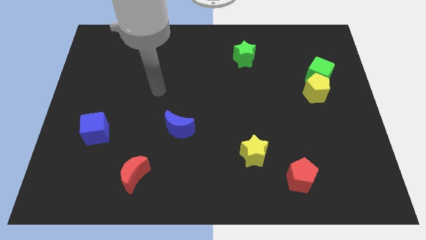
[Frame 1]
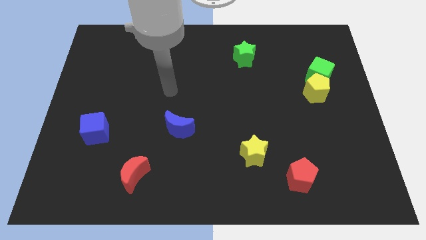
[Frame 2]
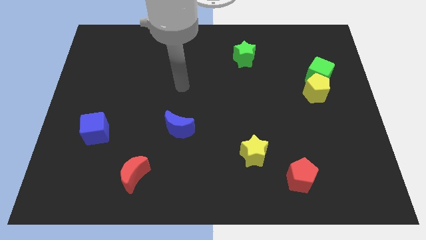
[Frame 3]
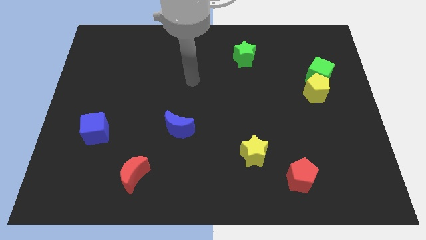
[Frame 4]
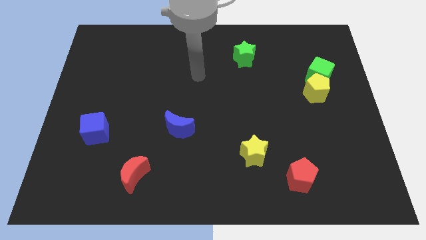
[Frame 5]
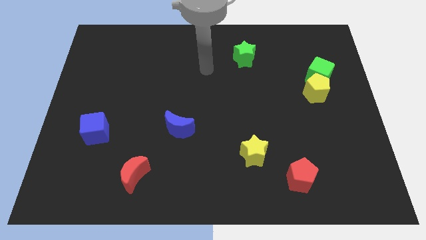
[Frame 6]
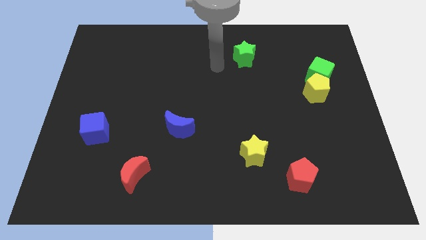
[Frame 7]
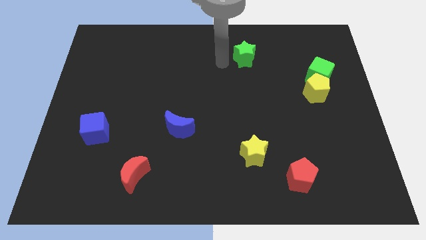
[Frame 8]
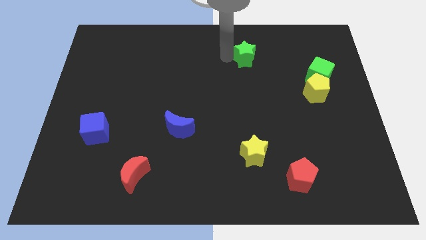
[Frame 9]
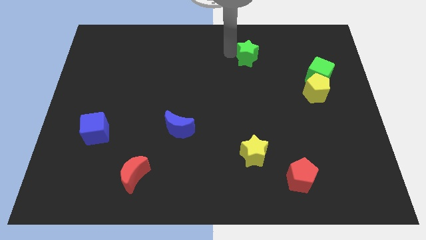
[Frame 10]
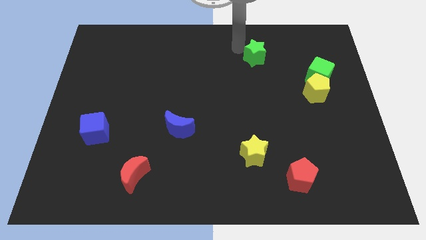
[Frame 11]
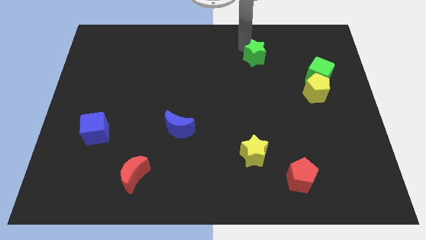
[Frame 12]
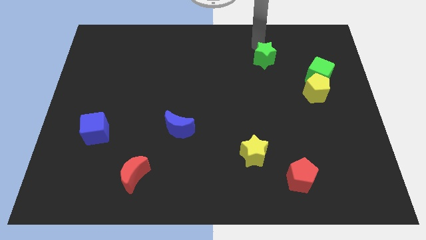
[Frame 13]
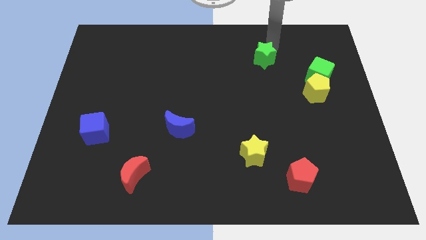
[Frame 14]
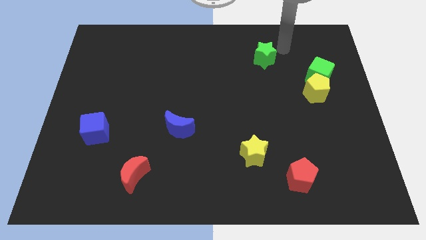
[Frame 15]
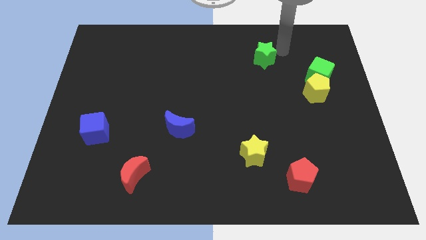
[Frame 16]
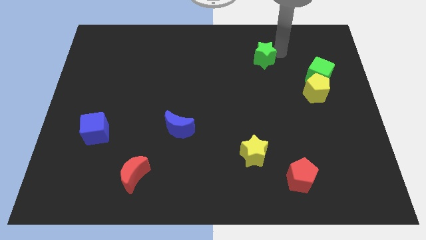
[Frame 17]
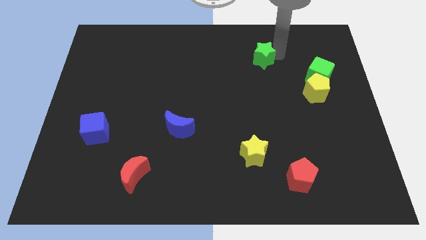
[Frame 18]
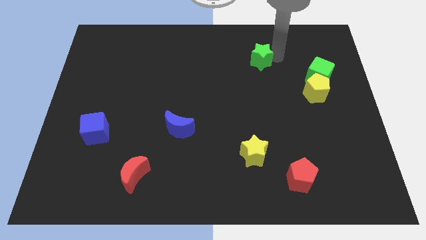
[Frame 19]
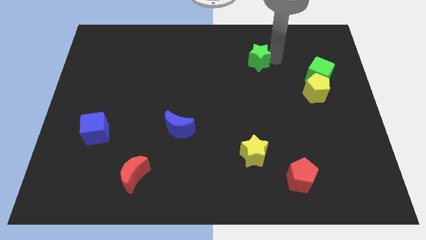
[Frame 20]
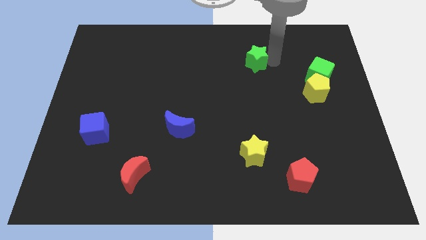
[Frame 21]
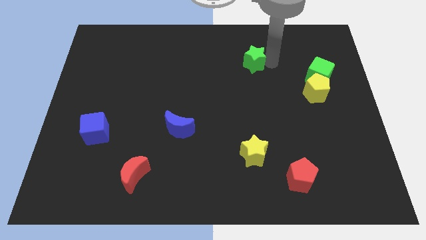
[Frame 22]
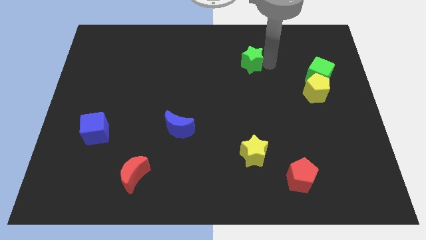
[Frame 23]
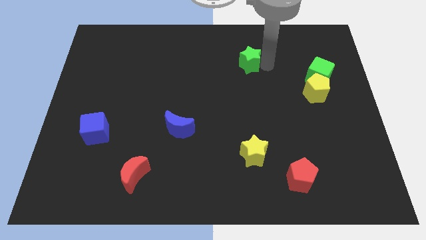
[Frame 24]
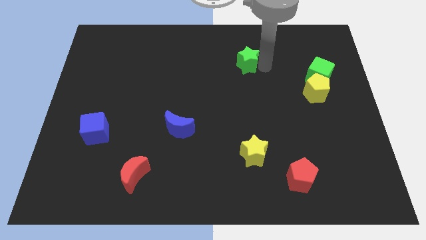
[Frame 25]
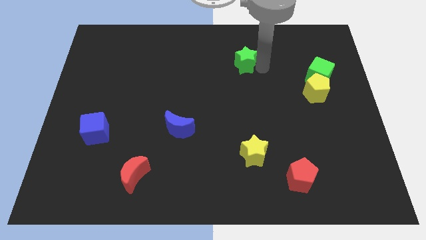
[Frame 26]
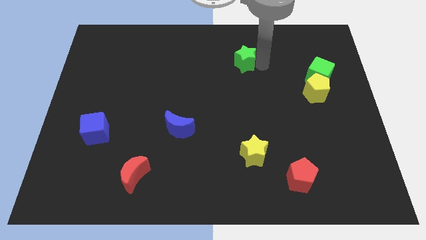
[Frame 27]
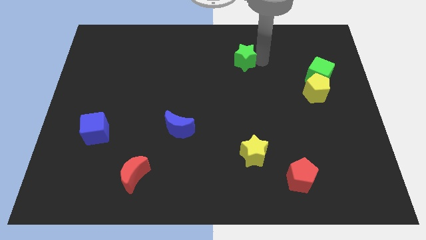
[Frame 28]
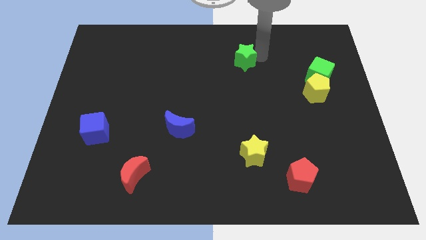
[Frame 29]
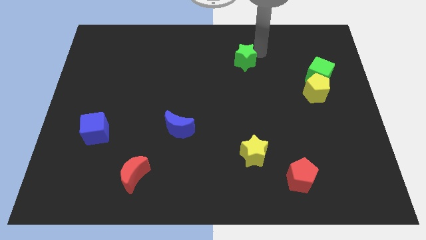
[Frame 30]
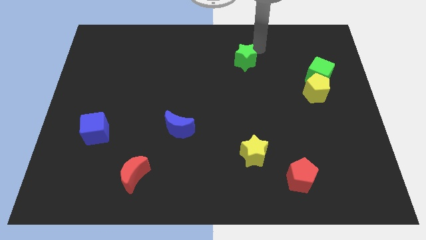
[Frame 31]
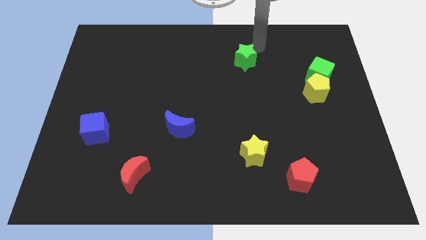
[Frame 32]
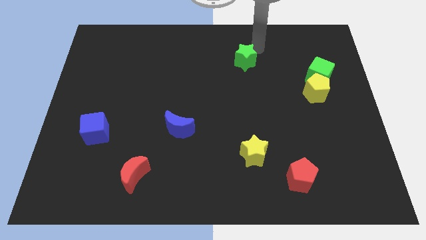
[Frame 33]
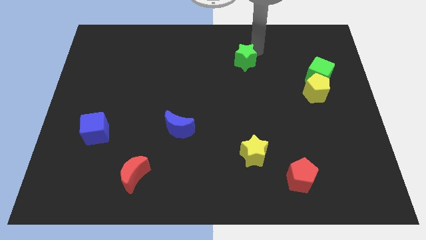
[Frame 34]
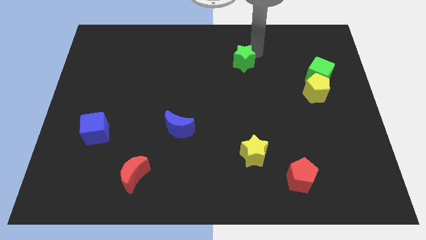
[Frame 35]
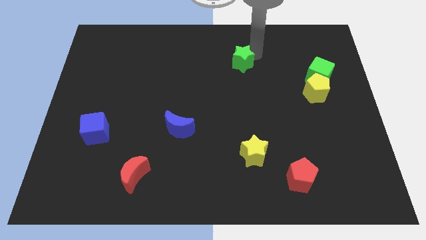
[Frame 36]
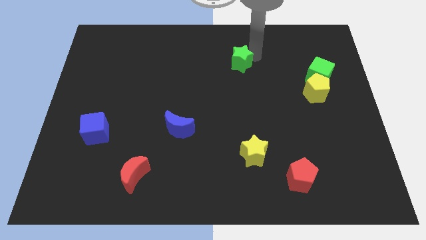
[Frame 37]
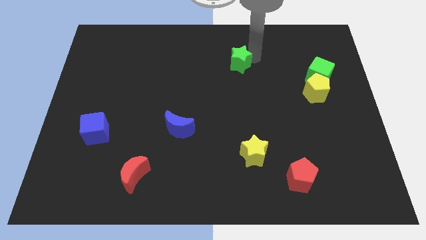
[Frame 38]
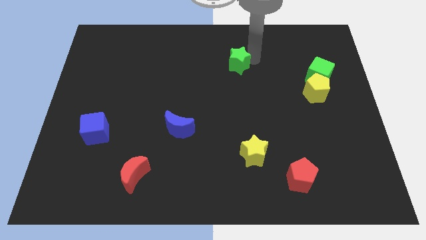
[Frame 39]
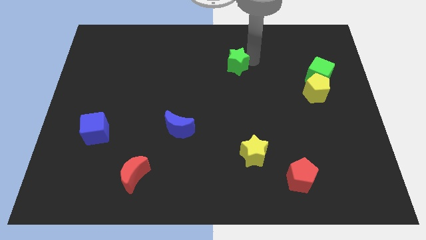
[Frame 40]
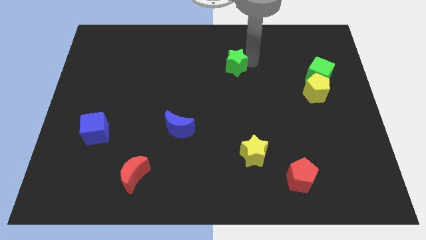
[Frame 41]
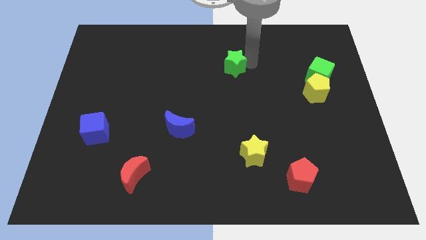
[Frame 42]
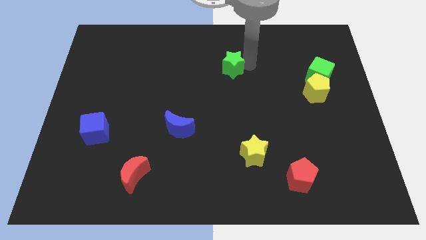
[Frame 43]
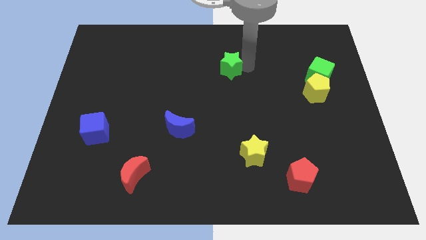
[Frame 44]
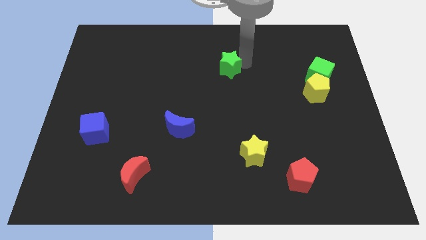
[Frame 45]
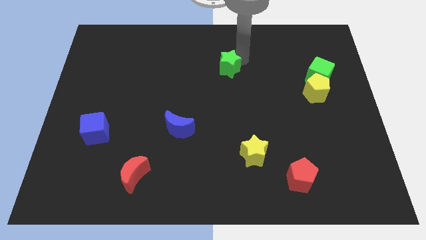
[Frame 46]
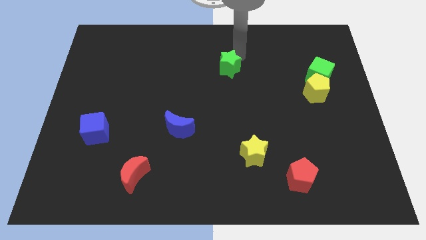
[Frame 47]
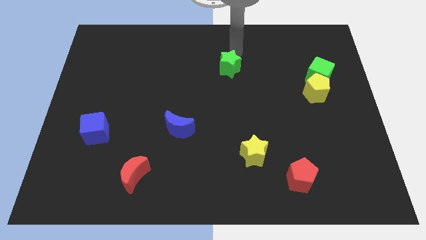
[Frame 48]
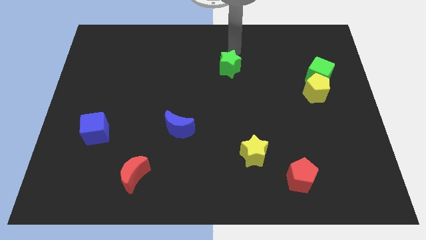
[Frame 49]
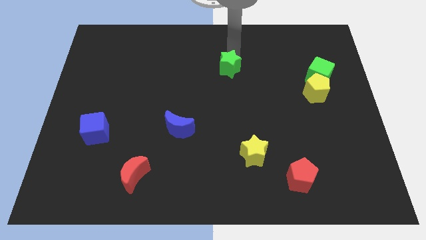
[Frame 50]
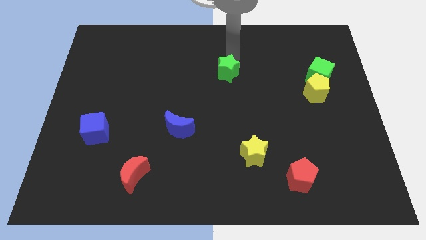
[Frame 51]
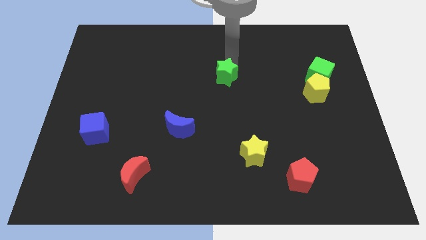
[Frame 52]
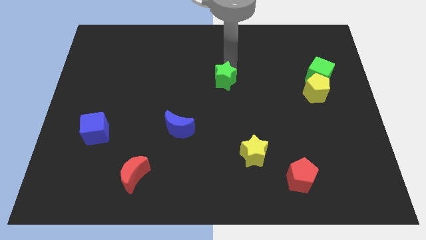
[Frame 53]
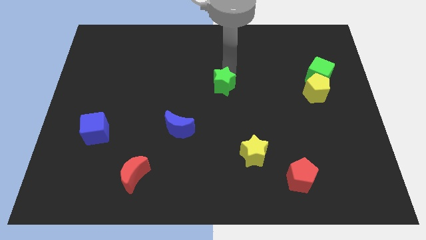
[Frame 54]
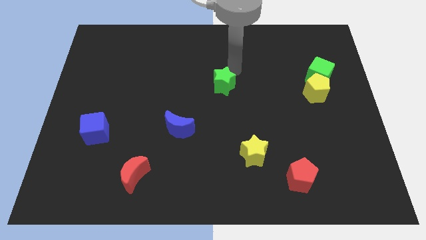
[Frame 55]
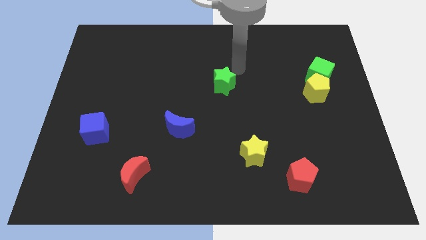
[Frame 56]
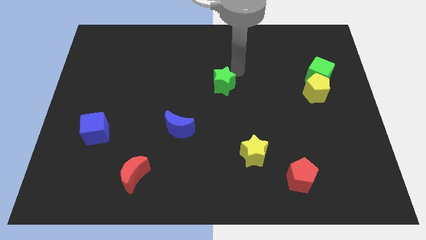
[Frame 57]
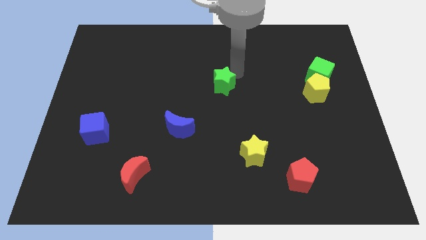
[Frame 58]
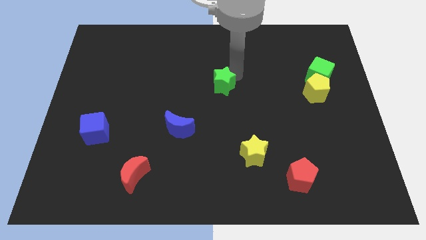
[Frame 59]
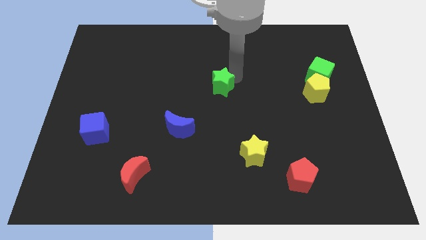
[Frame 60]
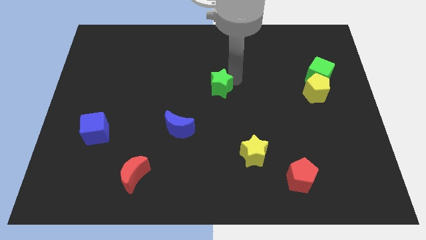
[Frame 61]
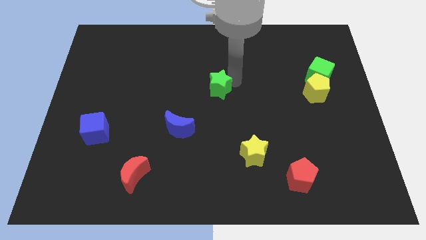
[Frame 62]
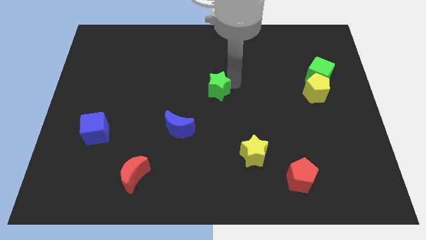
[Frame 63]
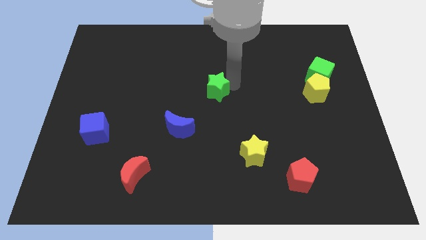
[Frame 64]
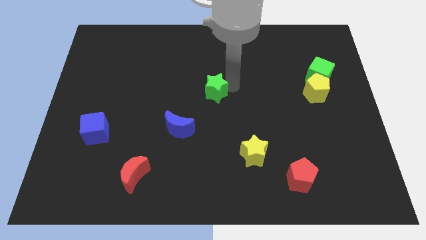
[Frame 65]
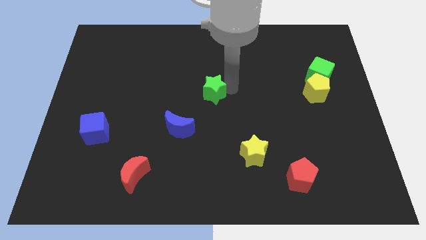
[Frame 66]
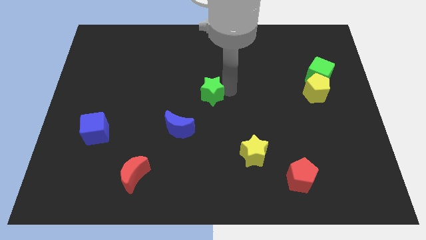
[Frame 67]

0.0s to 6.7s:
push the green star diagonally up and to the right of the blue moon
